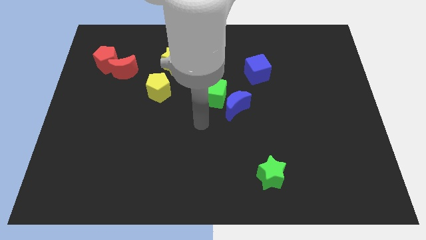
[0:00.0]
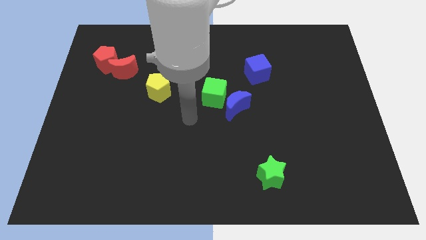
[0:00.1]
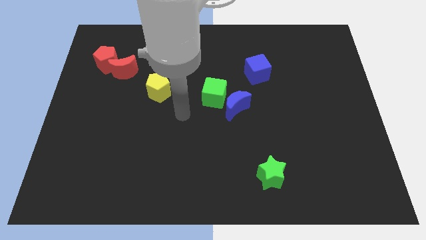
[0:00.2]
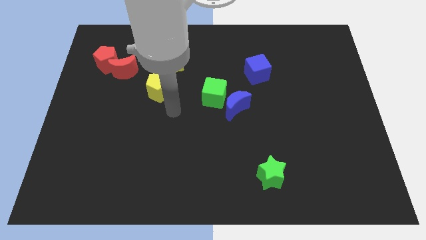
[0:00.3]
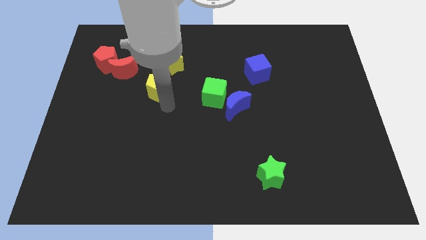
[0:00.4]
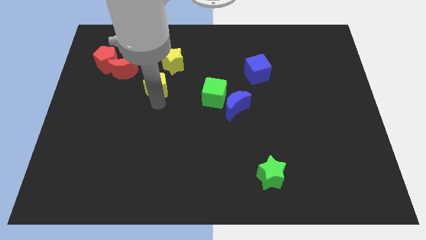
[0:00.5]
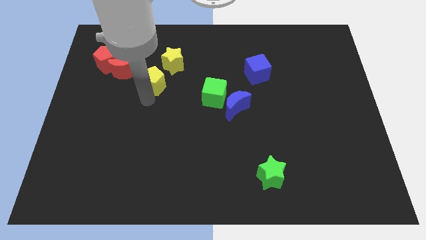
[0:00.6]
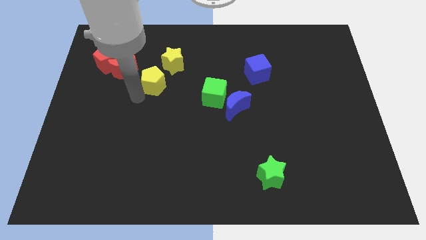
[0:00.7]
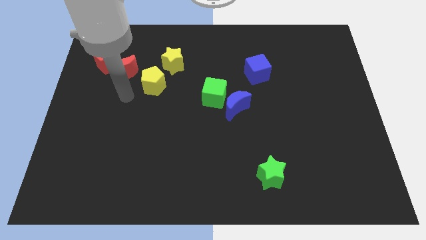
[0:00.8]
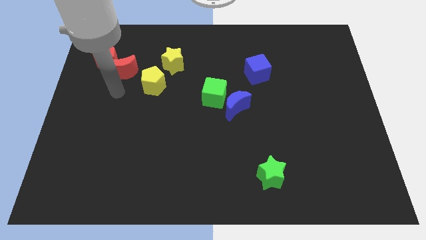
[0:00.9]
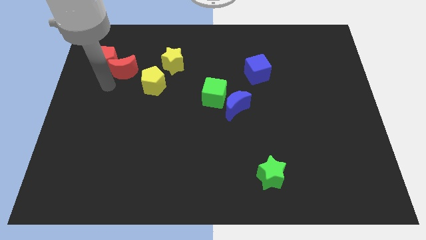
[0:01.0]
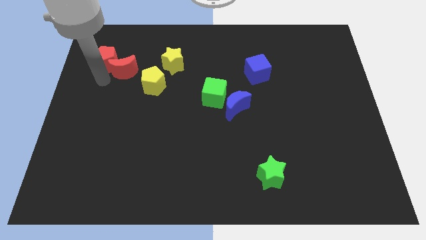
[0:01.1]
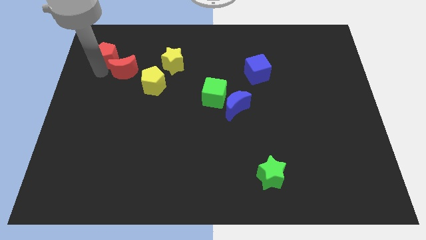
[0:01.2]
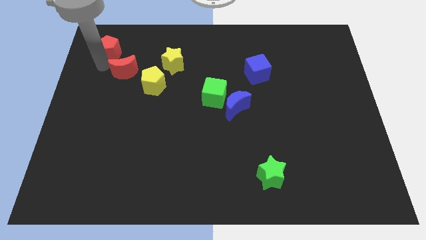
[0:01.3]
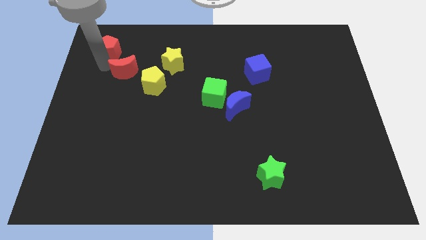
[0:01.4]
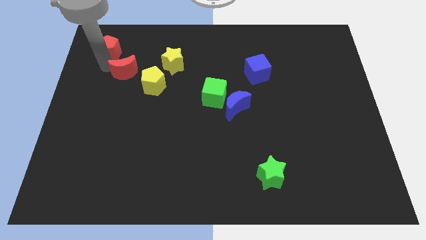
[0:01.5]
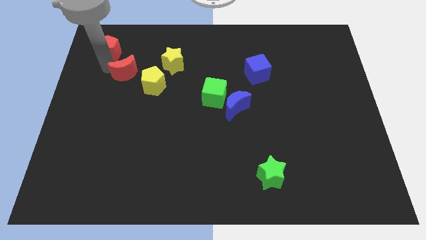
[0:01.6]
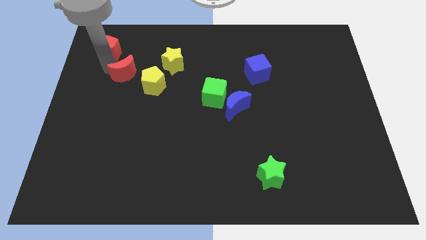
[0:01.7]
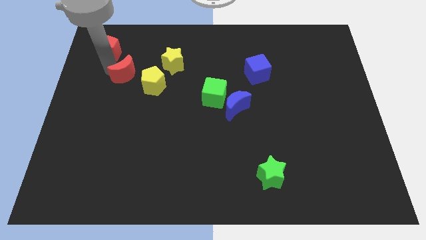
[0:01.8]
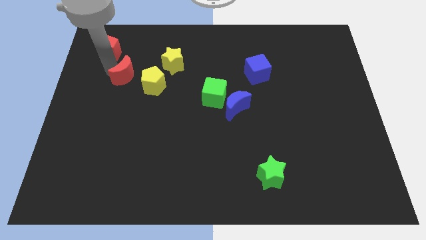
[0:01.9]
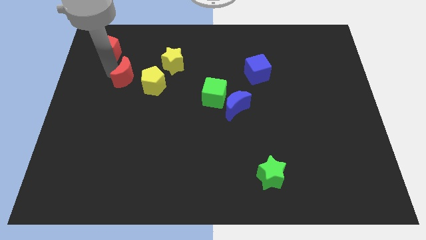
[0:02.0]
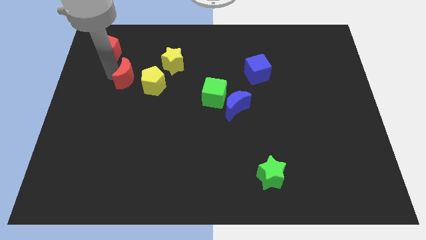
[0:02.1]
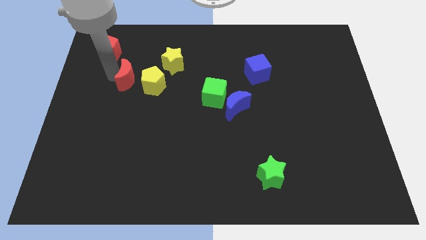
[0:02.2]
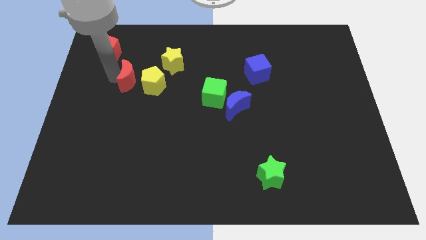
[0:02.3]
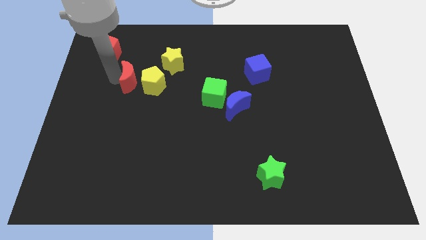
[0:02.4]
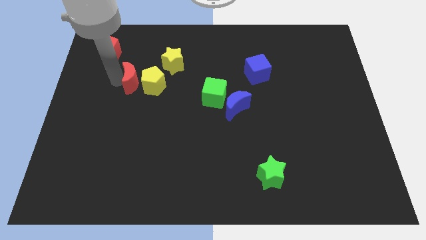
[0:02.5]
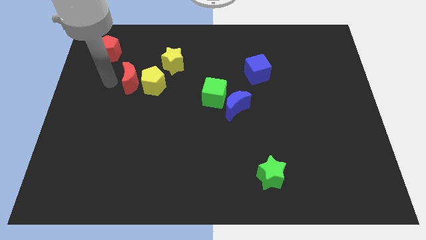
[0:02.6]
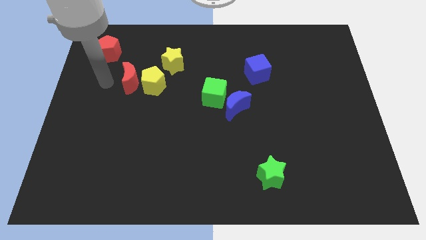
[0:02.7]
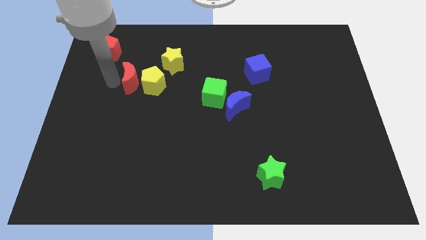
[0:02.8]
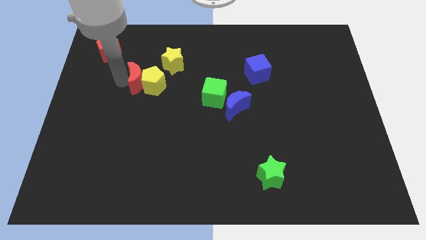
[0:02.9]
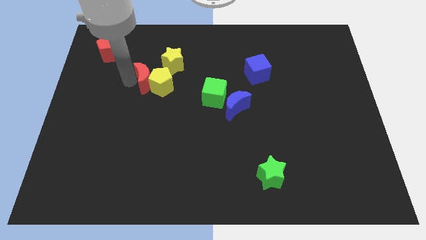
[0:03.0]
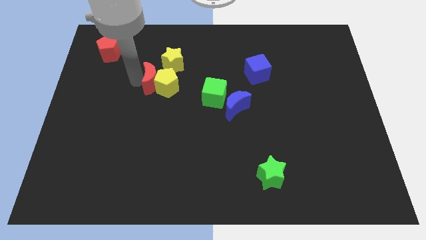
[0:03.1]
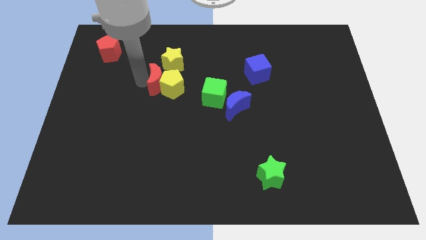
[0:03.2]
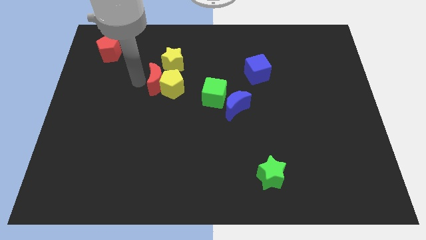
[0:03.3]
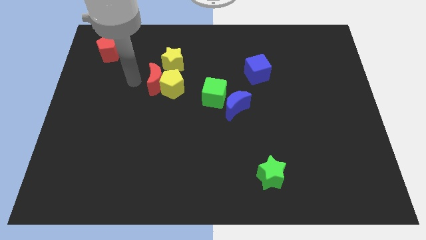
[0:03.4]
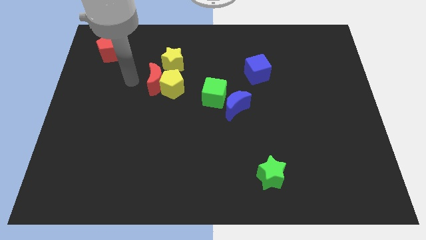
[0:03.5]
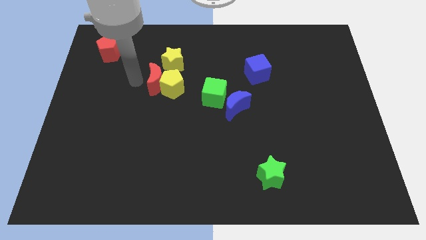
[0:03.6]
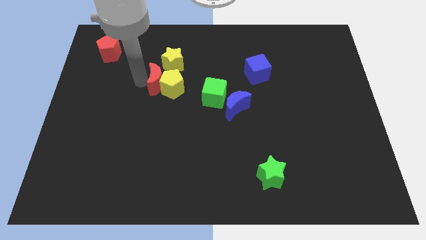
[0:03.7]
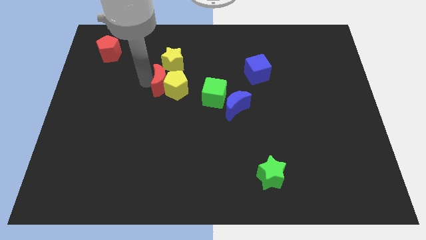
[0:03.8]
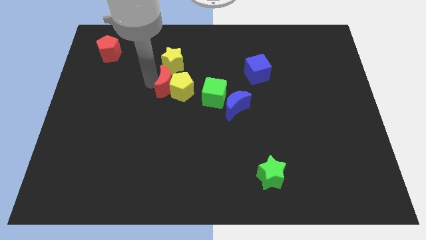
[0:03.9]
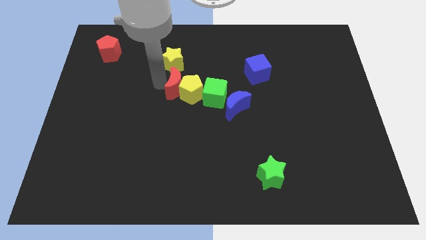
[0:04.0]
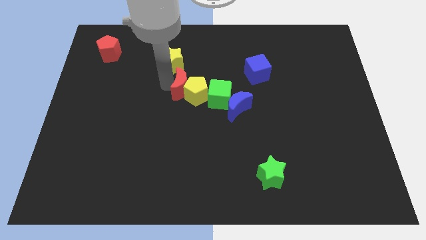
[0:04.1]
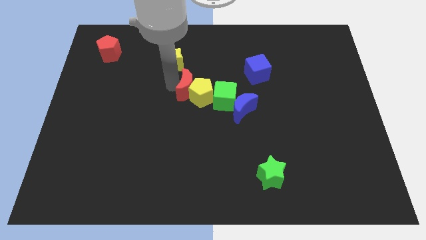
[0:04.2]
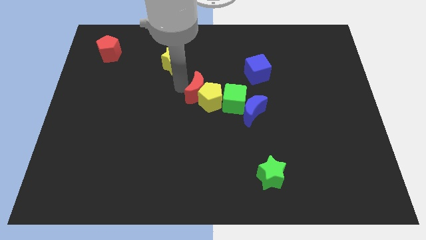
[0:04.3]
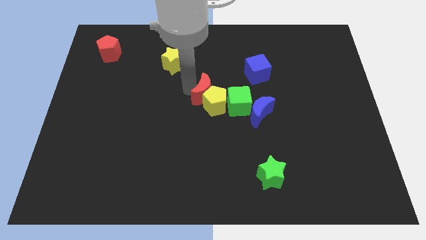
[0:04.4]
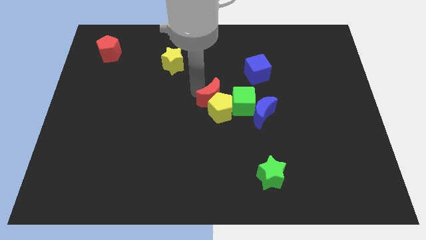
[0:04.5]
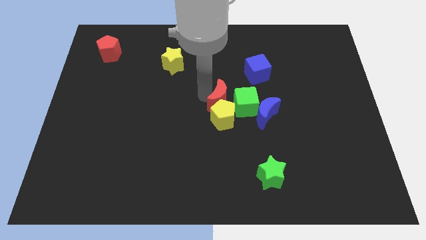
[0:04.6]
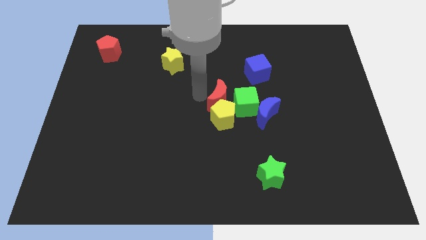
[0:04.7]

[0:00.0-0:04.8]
slide the red moon next to the green cube

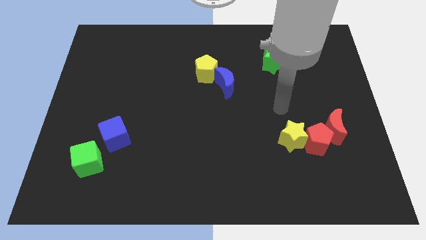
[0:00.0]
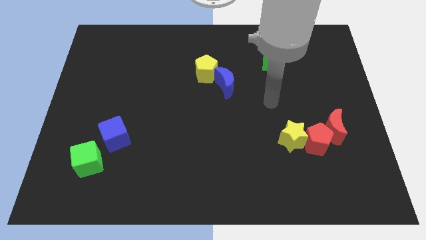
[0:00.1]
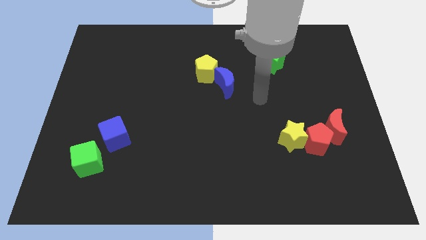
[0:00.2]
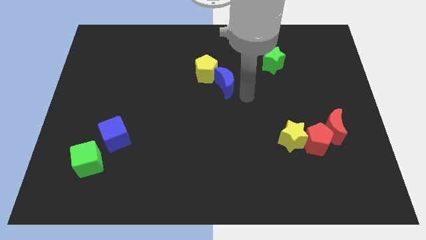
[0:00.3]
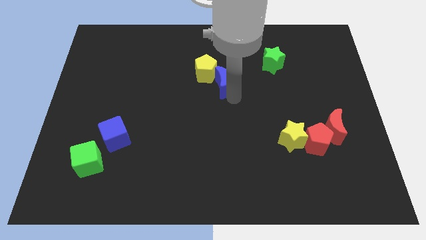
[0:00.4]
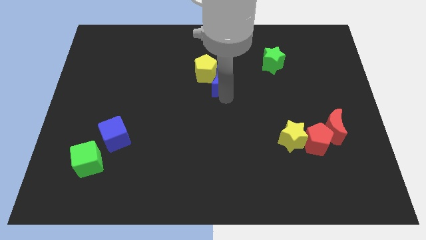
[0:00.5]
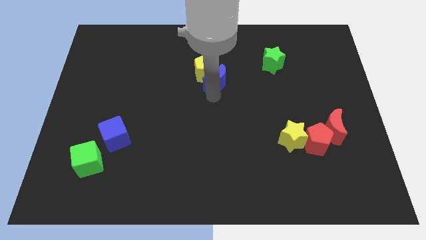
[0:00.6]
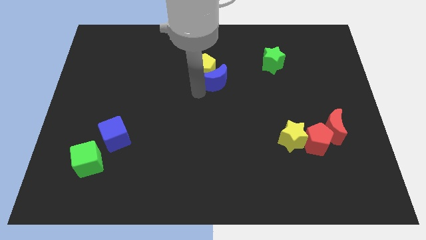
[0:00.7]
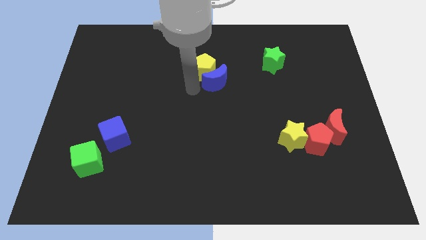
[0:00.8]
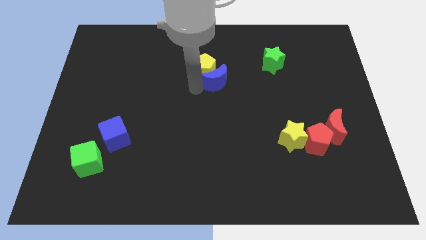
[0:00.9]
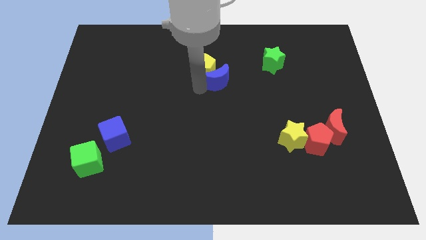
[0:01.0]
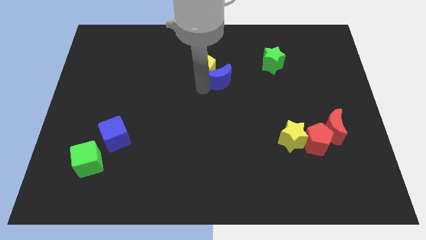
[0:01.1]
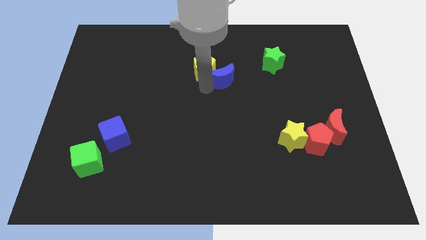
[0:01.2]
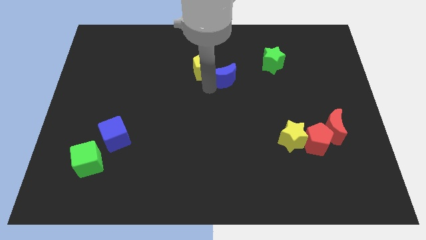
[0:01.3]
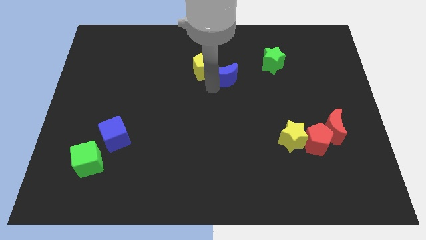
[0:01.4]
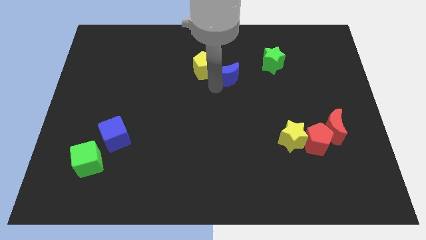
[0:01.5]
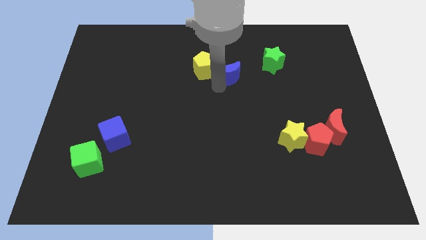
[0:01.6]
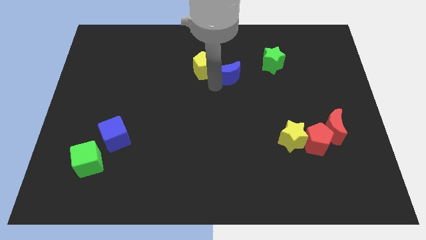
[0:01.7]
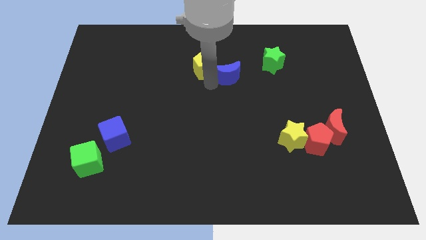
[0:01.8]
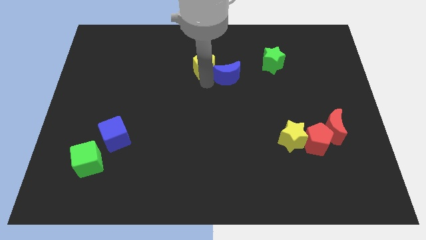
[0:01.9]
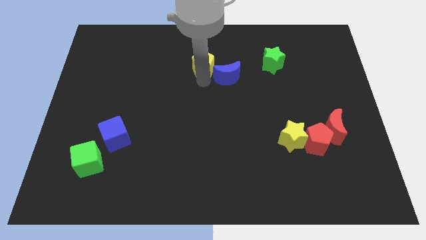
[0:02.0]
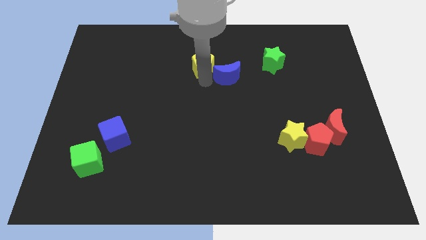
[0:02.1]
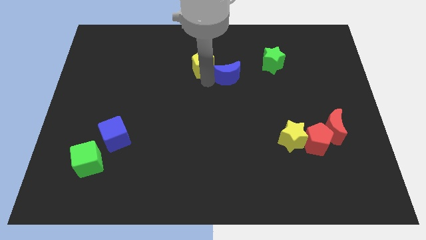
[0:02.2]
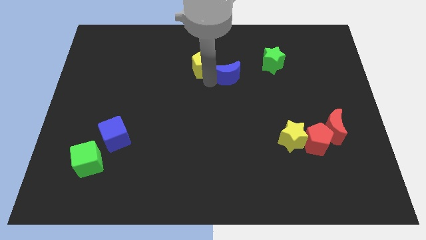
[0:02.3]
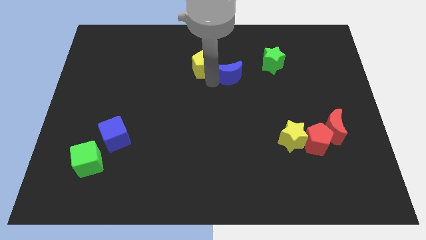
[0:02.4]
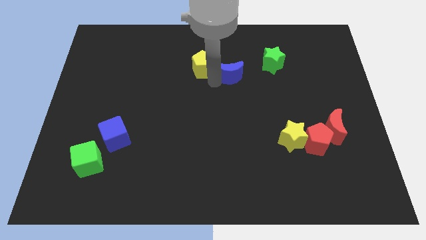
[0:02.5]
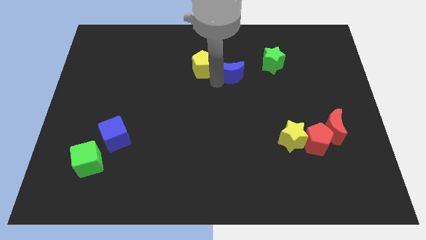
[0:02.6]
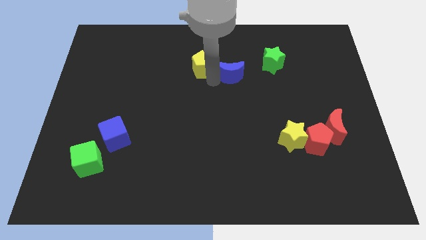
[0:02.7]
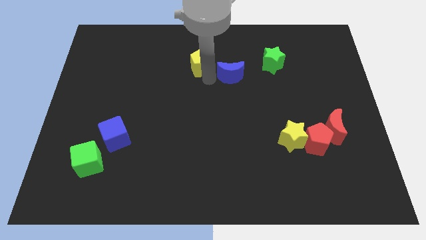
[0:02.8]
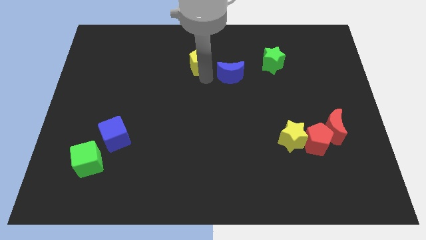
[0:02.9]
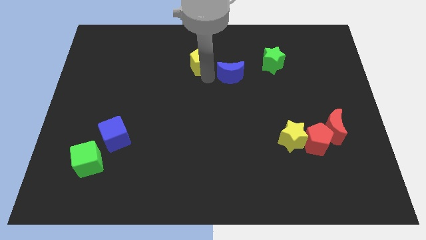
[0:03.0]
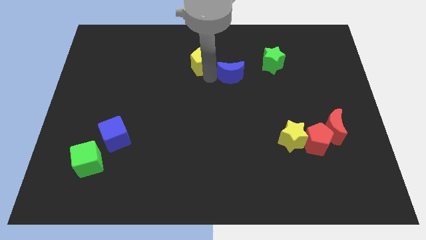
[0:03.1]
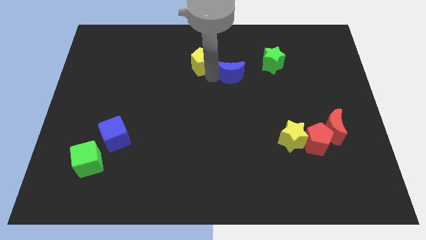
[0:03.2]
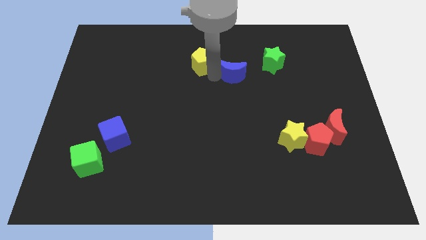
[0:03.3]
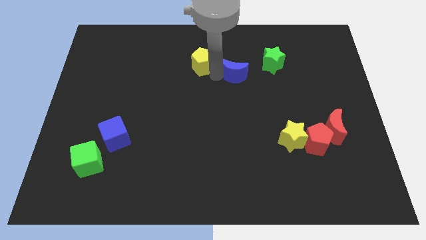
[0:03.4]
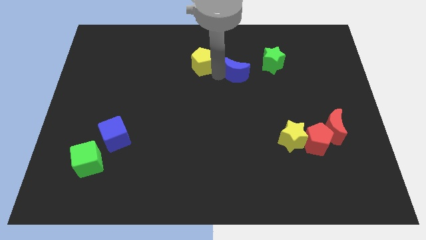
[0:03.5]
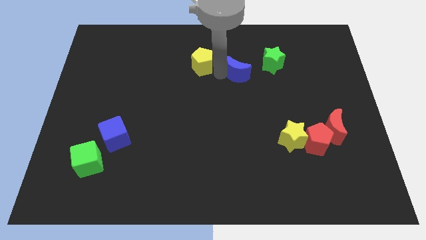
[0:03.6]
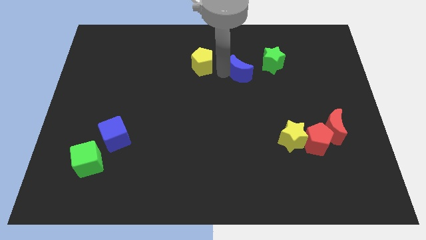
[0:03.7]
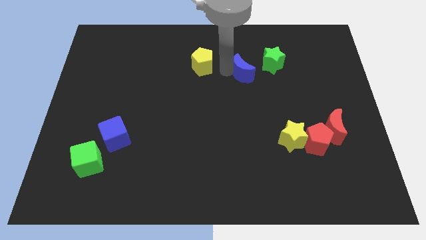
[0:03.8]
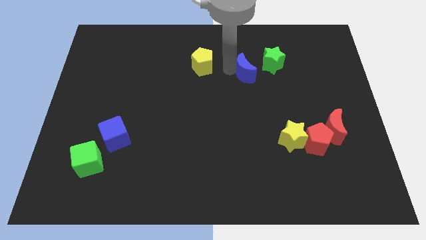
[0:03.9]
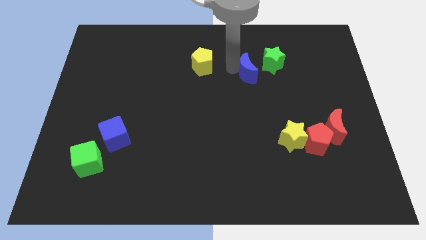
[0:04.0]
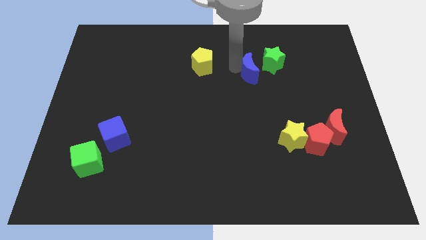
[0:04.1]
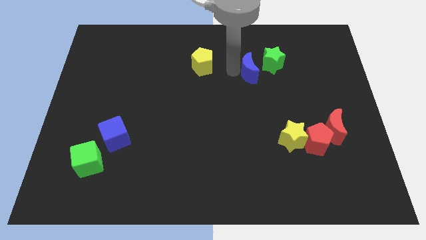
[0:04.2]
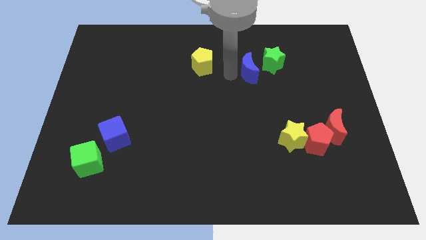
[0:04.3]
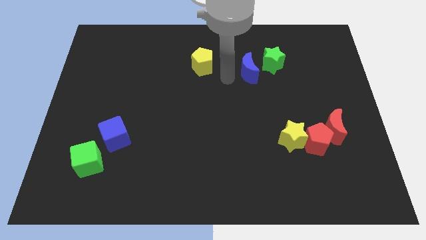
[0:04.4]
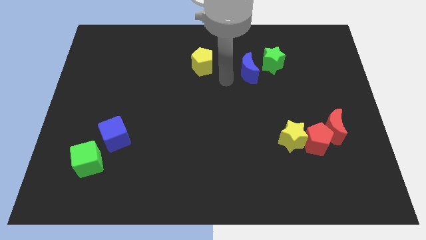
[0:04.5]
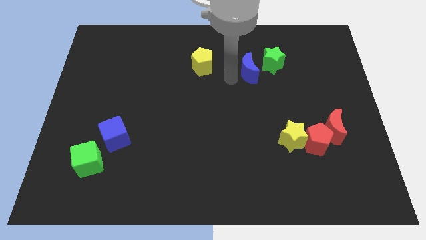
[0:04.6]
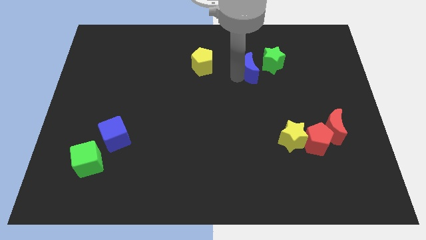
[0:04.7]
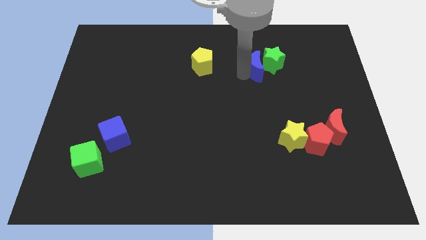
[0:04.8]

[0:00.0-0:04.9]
put the blue moon close to the green star
